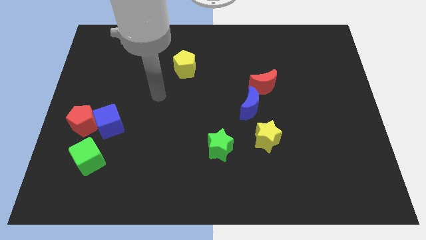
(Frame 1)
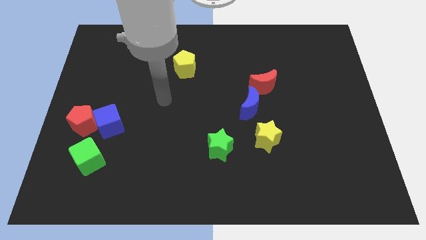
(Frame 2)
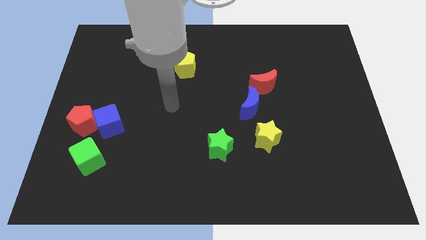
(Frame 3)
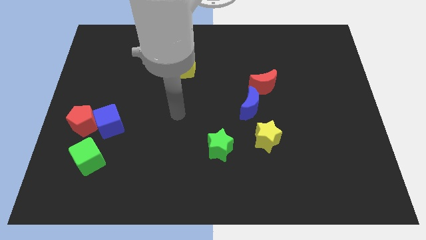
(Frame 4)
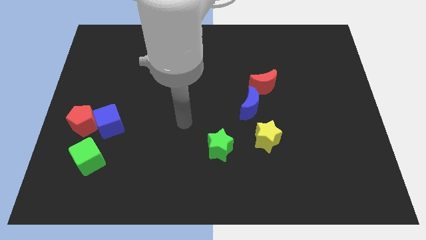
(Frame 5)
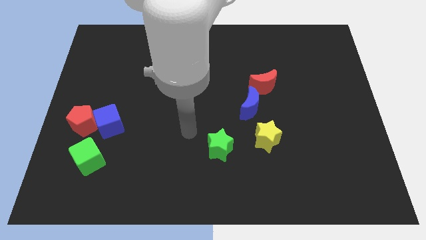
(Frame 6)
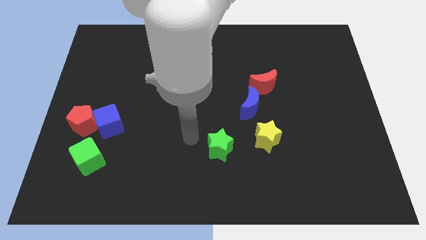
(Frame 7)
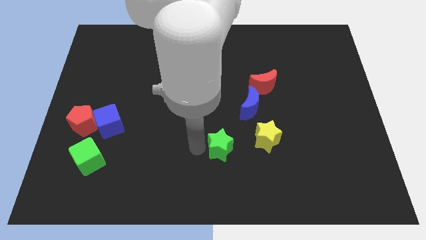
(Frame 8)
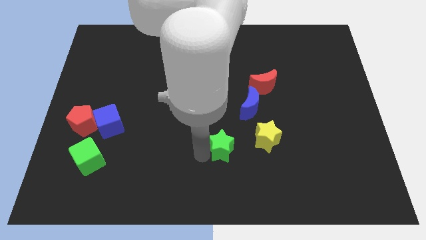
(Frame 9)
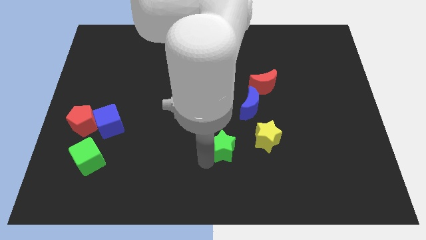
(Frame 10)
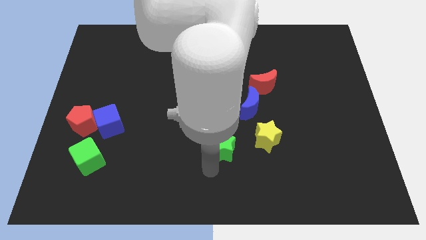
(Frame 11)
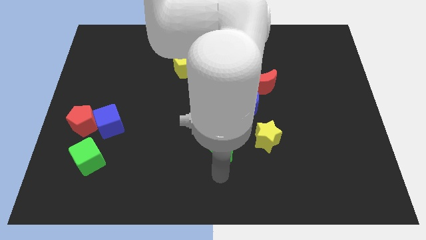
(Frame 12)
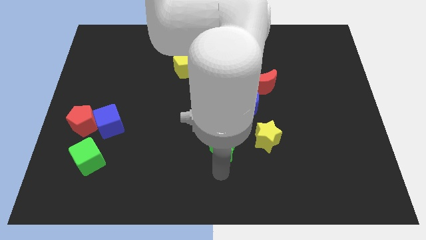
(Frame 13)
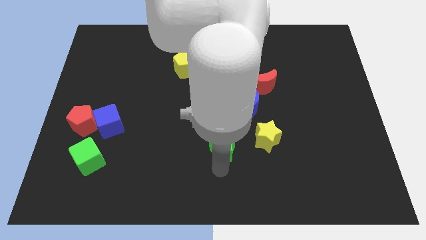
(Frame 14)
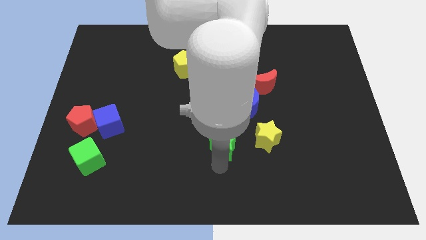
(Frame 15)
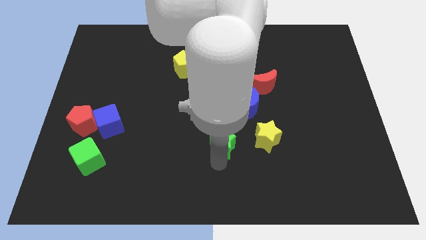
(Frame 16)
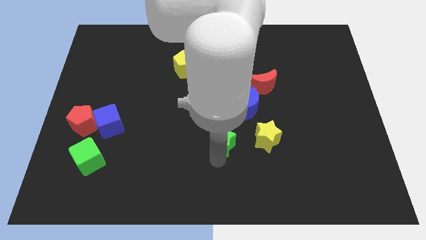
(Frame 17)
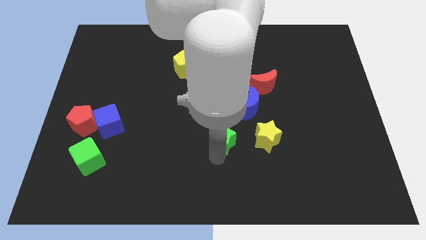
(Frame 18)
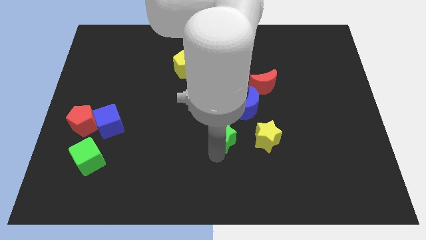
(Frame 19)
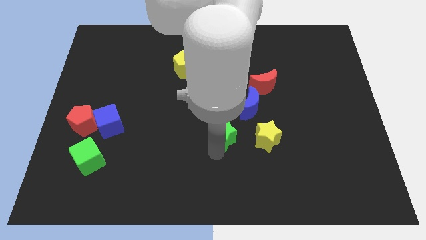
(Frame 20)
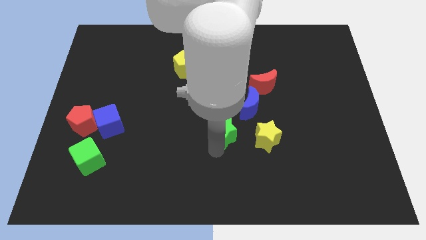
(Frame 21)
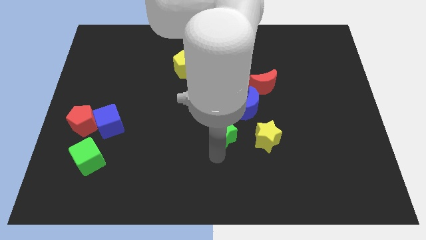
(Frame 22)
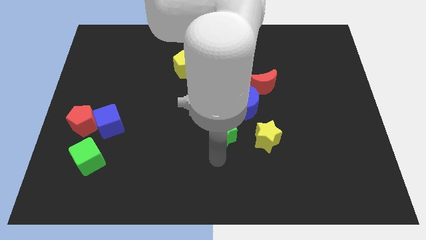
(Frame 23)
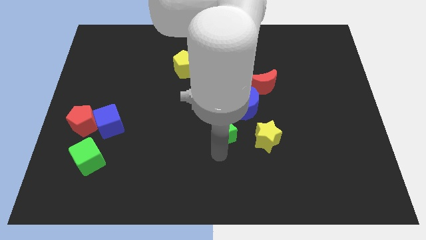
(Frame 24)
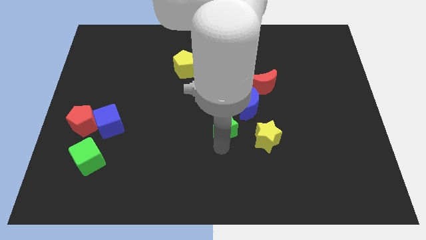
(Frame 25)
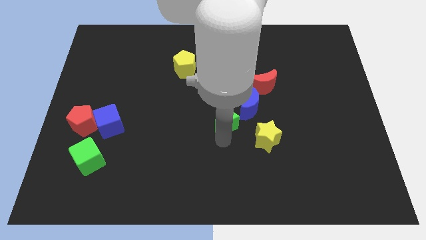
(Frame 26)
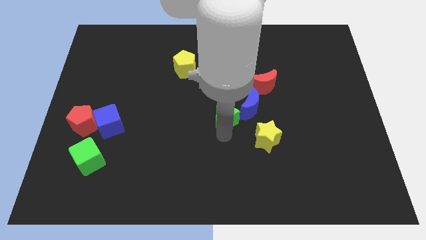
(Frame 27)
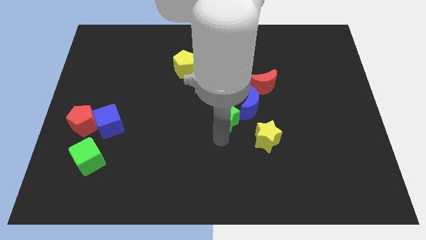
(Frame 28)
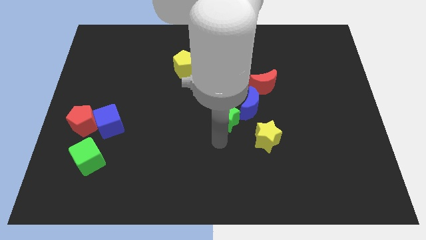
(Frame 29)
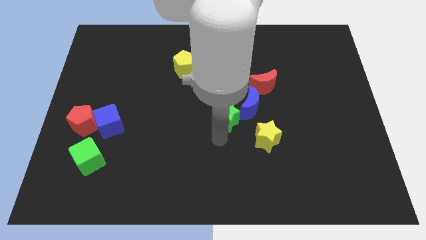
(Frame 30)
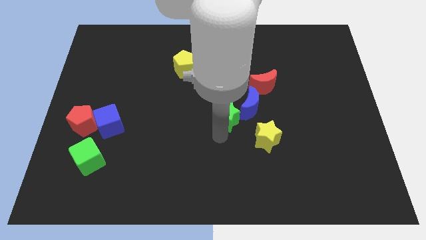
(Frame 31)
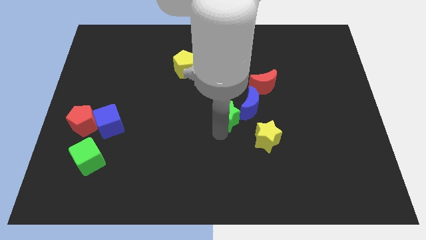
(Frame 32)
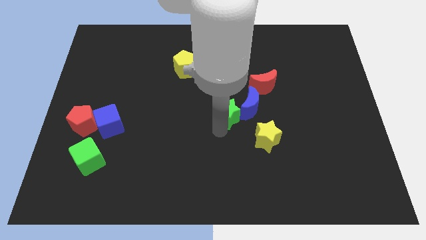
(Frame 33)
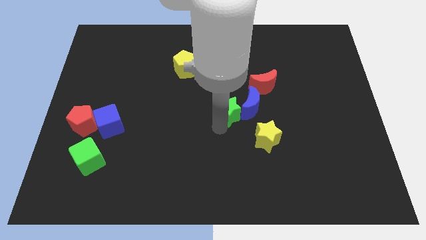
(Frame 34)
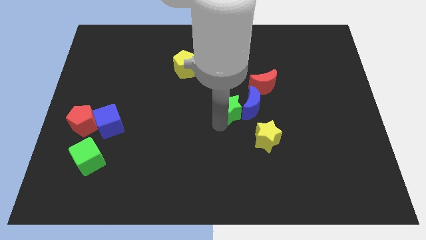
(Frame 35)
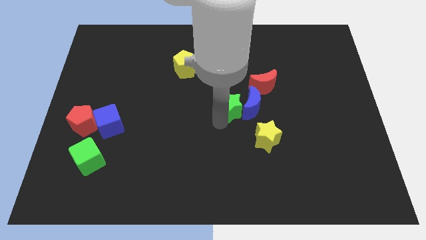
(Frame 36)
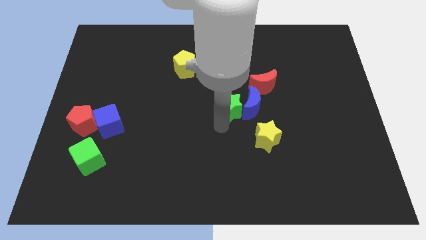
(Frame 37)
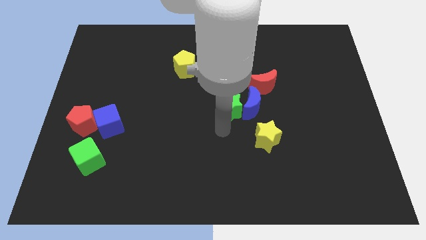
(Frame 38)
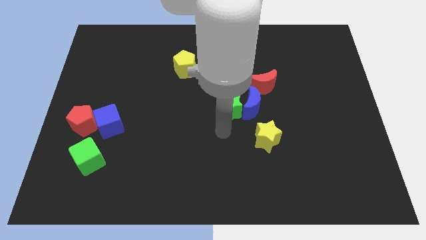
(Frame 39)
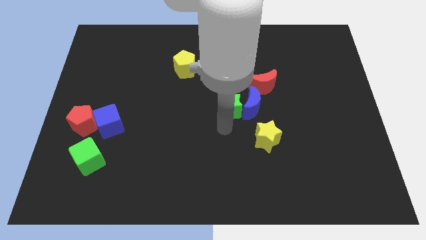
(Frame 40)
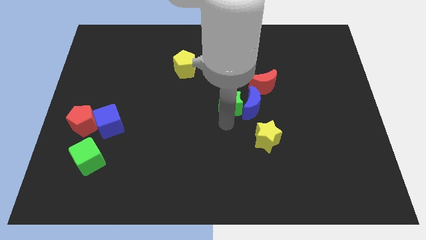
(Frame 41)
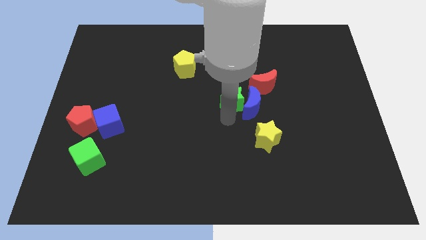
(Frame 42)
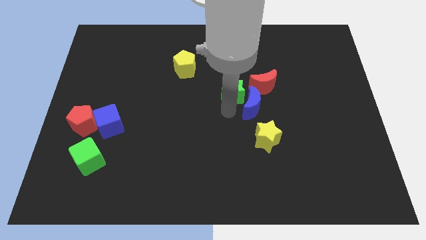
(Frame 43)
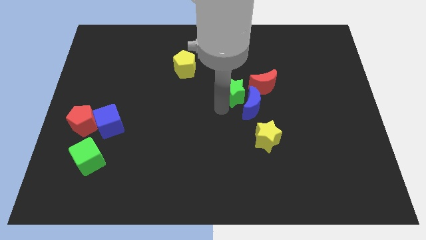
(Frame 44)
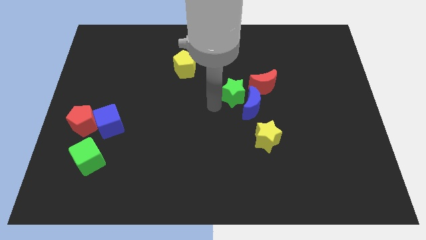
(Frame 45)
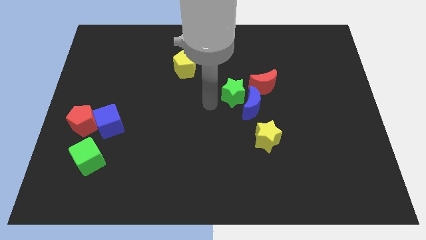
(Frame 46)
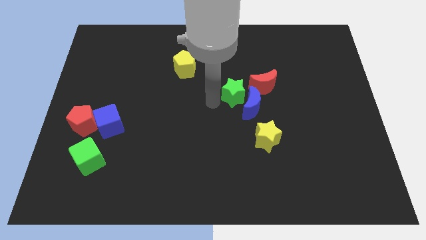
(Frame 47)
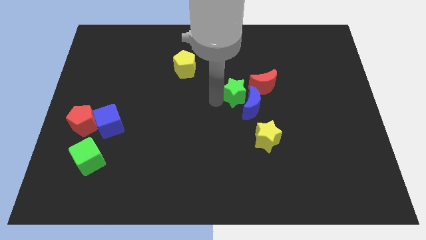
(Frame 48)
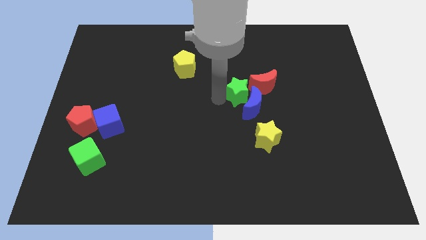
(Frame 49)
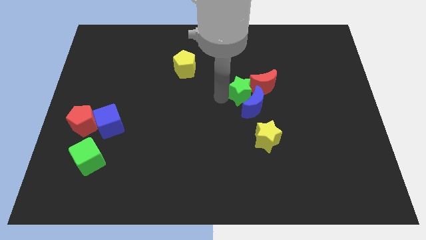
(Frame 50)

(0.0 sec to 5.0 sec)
move the green star towards the red moon

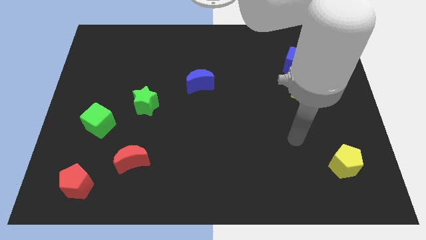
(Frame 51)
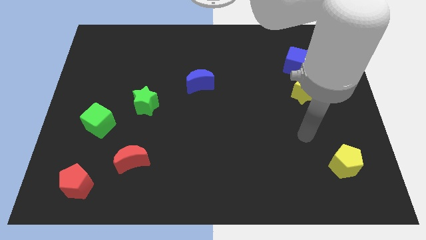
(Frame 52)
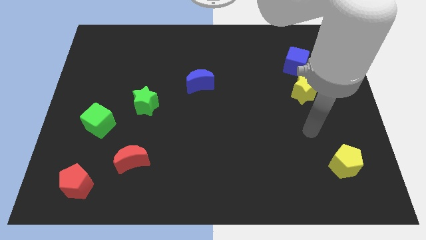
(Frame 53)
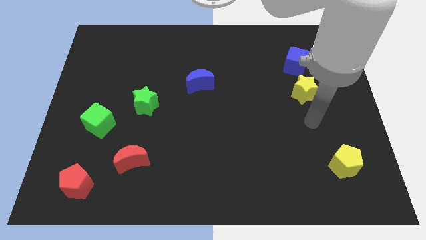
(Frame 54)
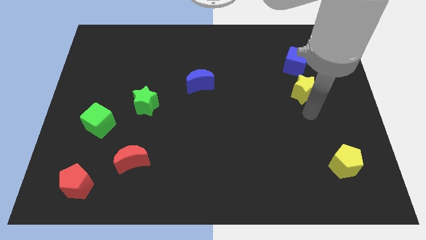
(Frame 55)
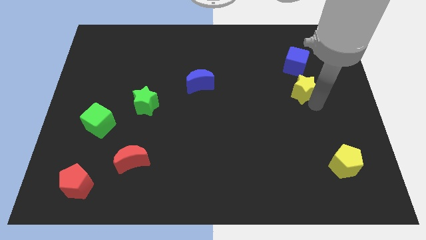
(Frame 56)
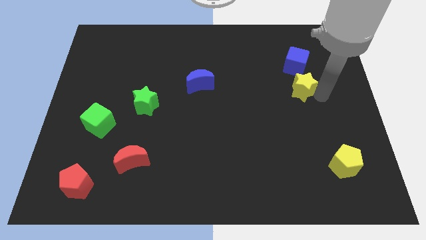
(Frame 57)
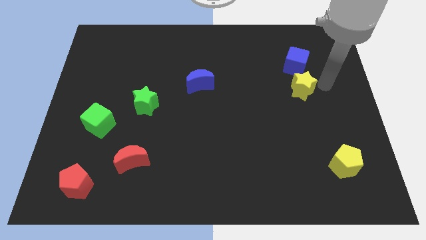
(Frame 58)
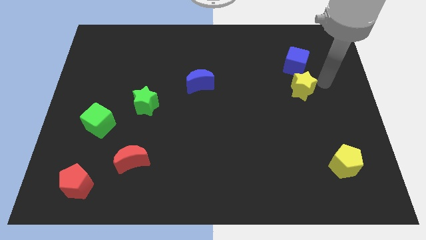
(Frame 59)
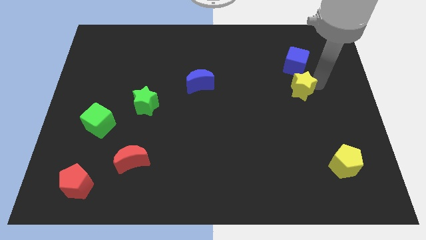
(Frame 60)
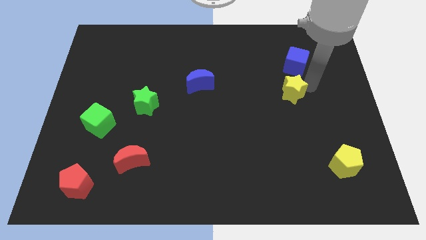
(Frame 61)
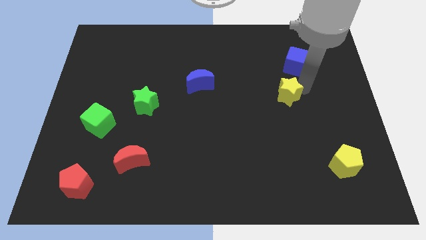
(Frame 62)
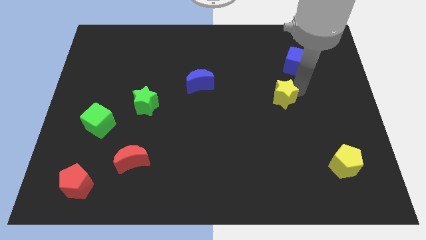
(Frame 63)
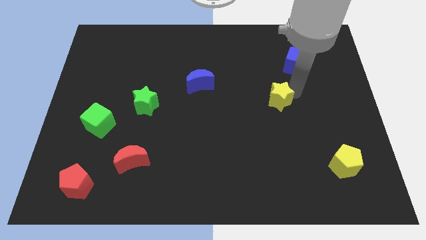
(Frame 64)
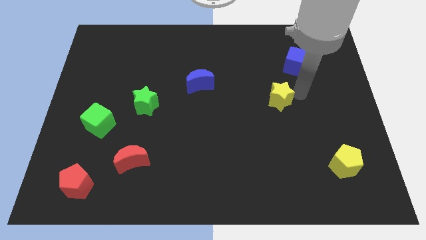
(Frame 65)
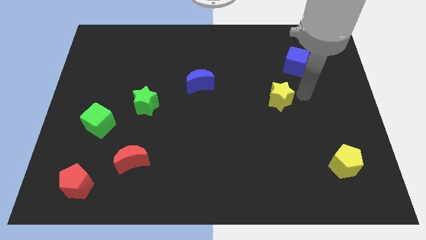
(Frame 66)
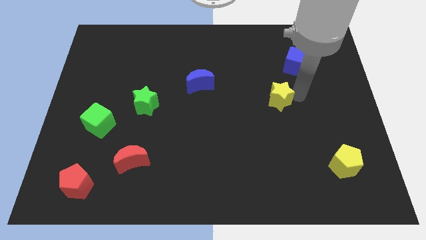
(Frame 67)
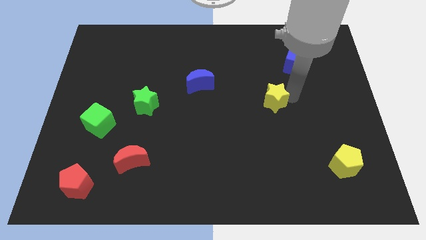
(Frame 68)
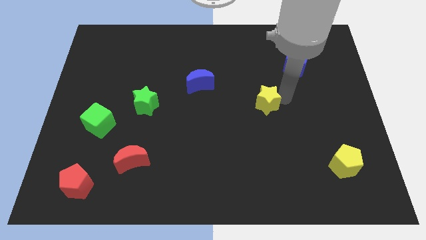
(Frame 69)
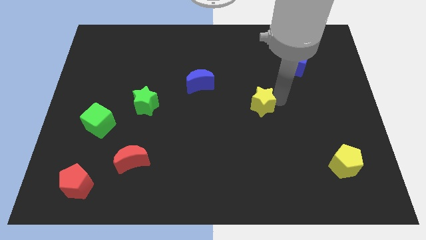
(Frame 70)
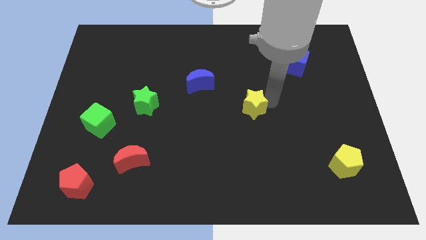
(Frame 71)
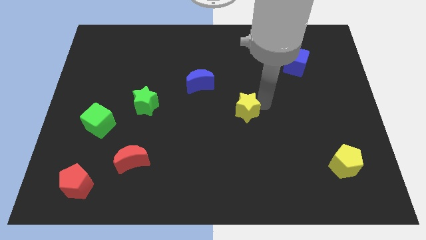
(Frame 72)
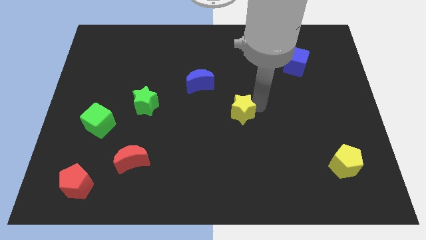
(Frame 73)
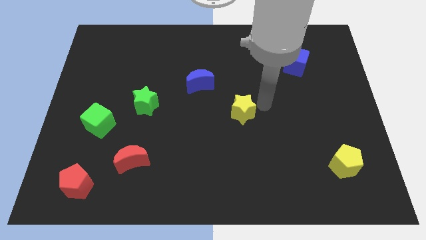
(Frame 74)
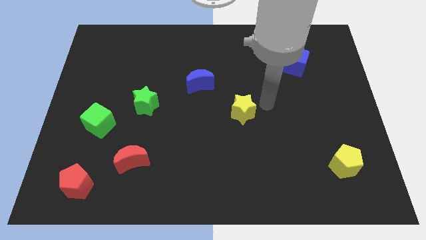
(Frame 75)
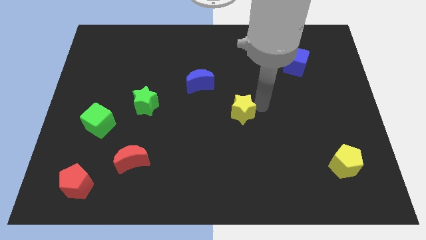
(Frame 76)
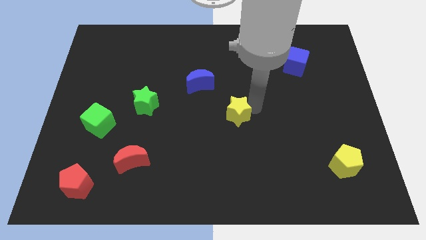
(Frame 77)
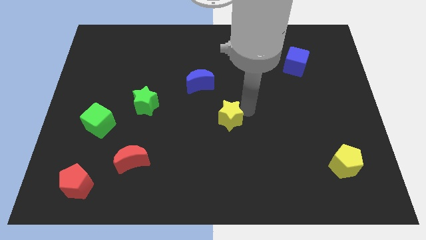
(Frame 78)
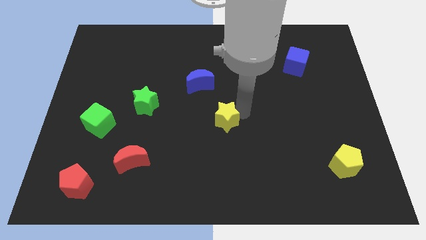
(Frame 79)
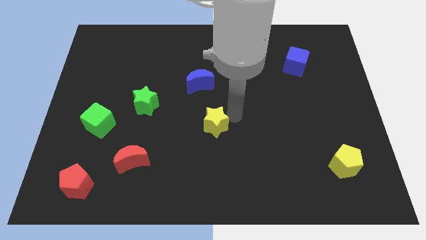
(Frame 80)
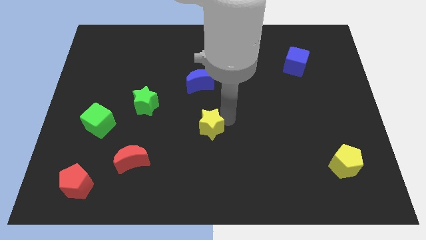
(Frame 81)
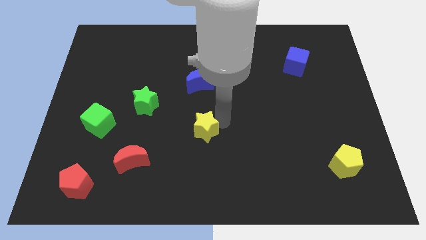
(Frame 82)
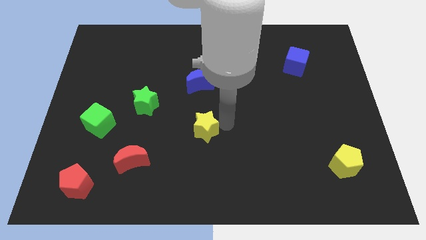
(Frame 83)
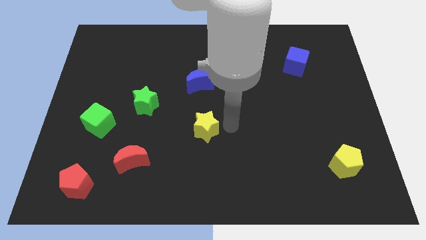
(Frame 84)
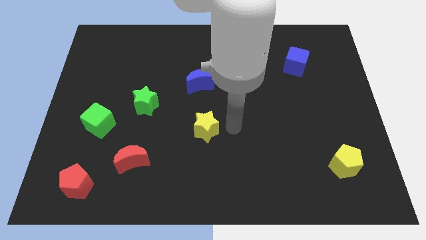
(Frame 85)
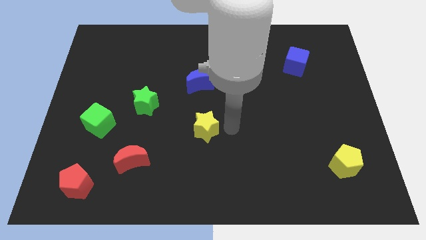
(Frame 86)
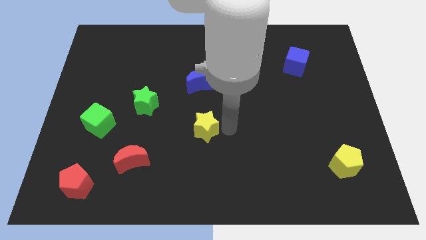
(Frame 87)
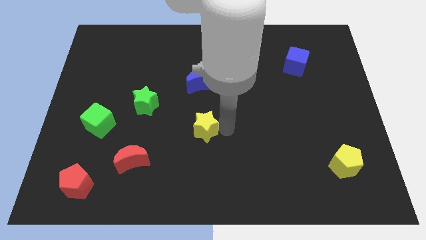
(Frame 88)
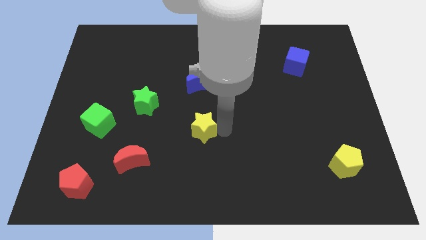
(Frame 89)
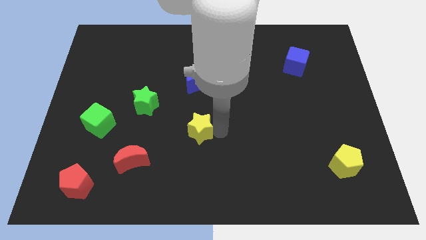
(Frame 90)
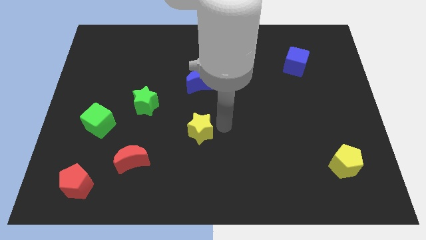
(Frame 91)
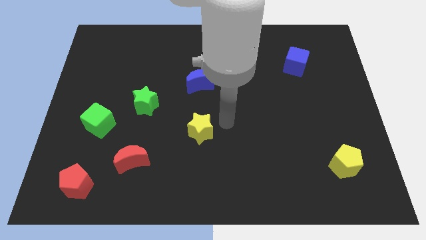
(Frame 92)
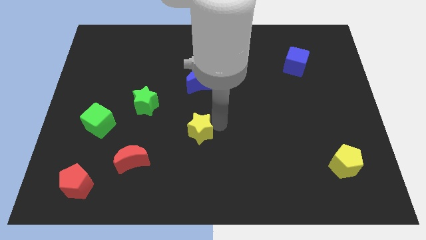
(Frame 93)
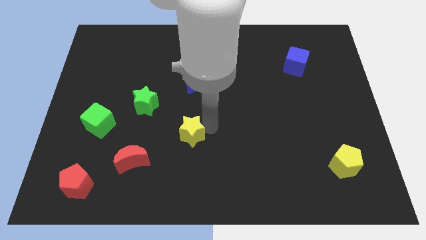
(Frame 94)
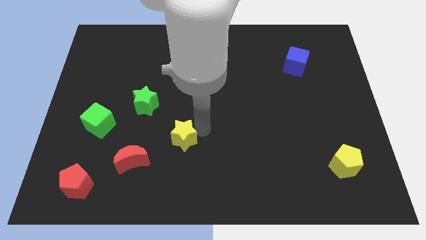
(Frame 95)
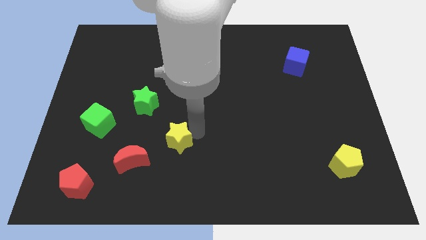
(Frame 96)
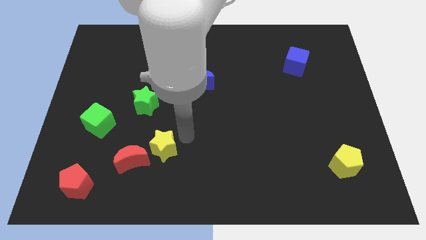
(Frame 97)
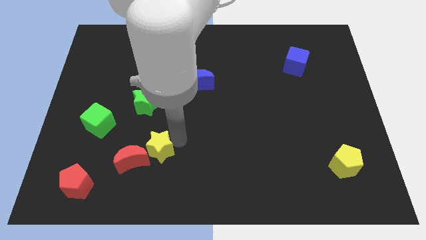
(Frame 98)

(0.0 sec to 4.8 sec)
slide the yellow star towards the red moon
